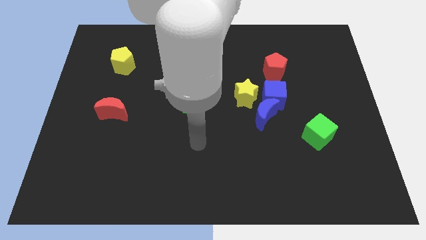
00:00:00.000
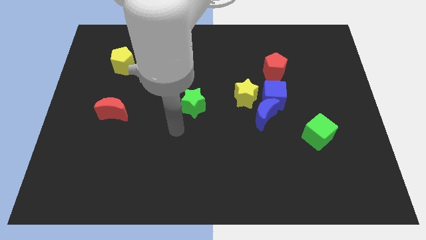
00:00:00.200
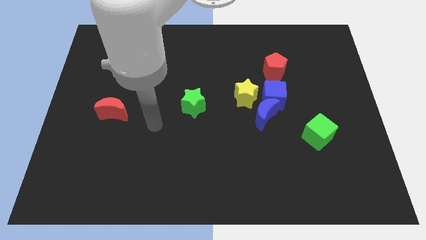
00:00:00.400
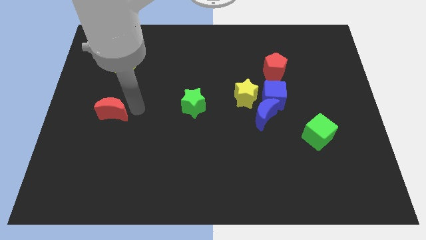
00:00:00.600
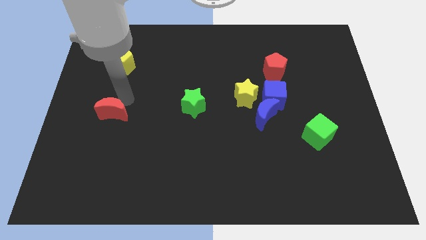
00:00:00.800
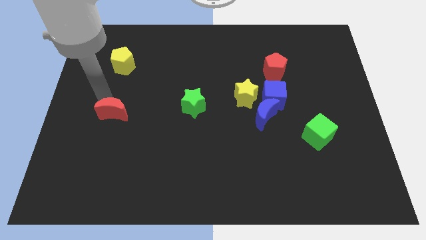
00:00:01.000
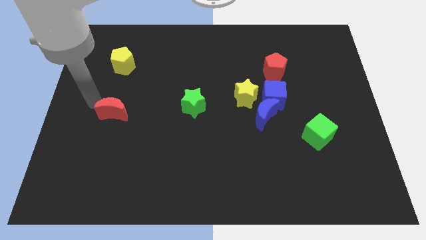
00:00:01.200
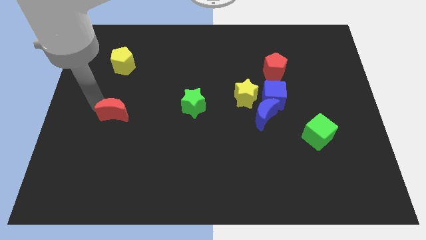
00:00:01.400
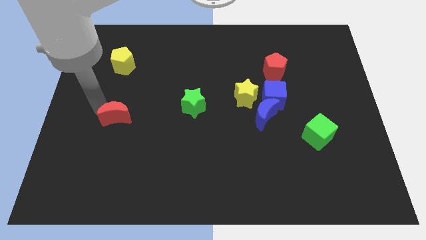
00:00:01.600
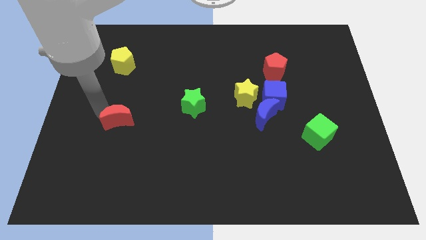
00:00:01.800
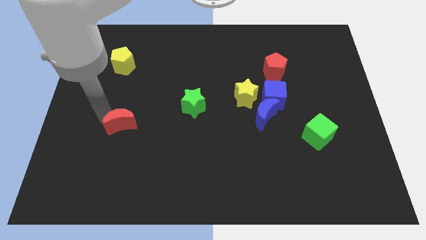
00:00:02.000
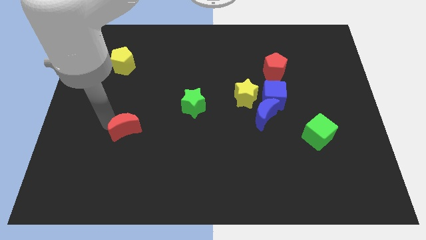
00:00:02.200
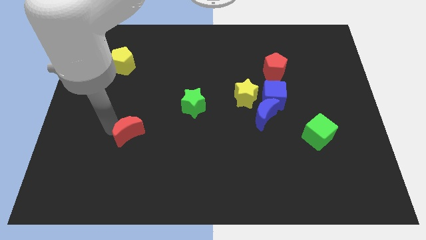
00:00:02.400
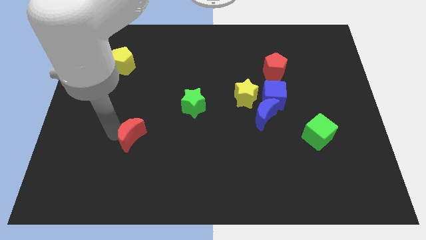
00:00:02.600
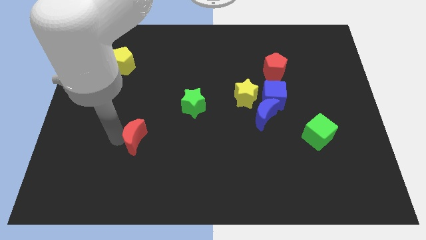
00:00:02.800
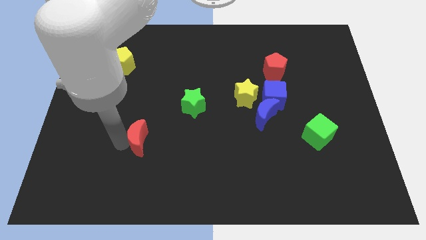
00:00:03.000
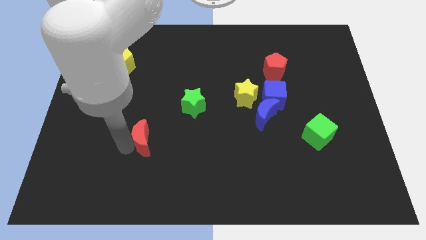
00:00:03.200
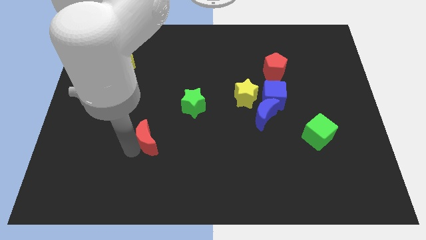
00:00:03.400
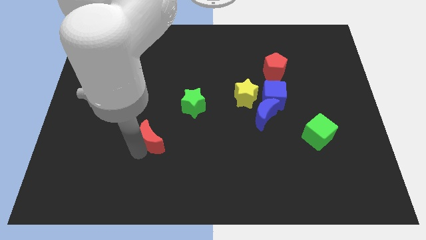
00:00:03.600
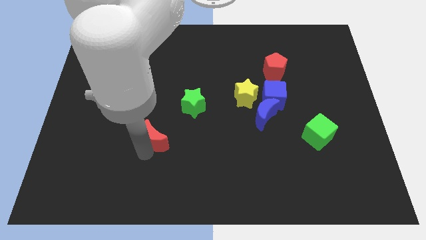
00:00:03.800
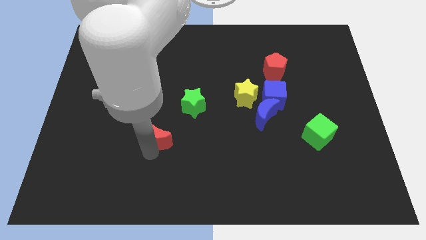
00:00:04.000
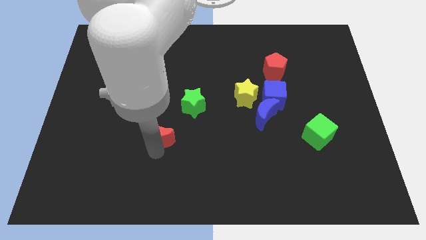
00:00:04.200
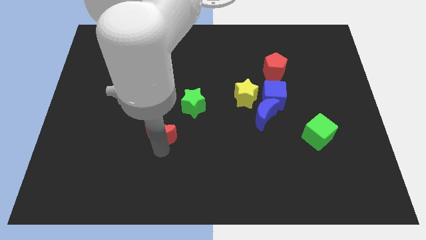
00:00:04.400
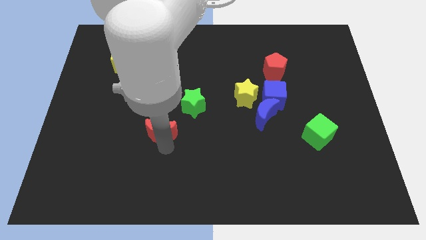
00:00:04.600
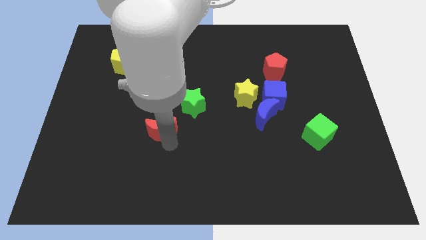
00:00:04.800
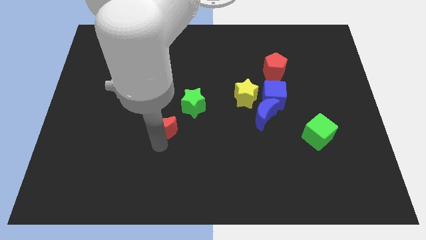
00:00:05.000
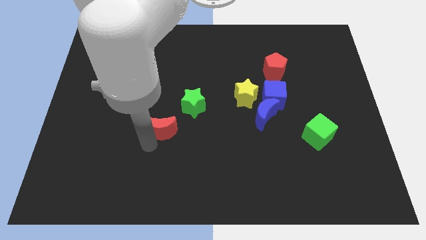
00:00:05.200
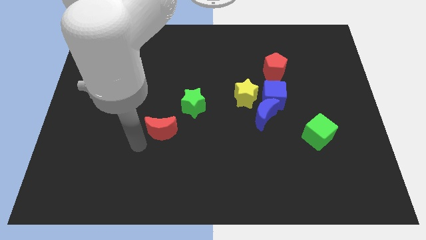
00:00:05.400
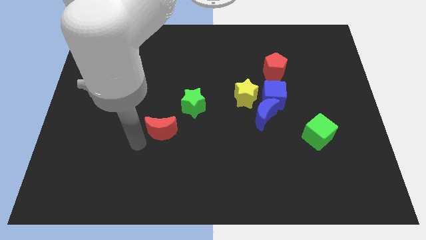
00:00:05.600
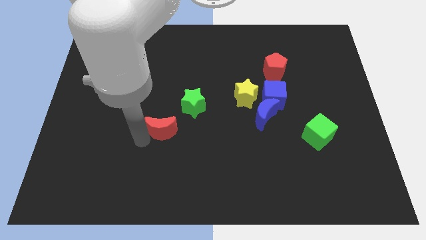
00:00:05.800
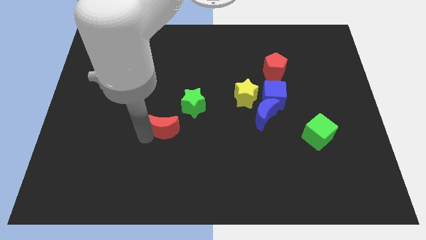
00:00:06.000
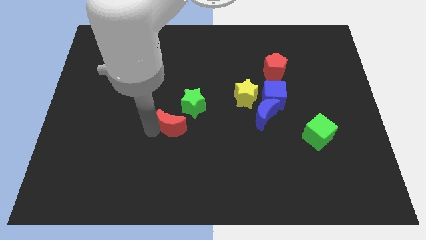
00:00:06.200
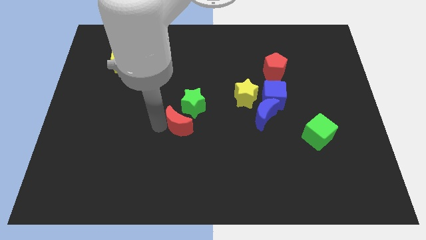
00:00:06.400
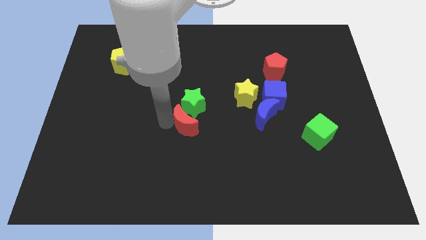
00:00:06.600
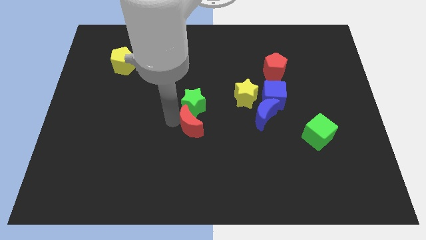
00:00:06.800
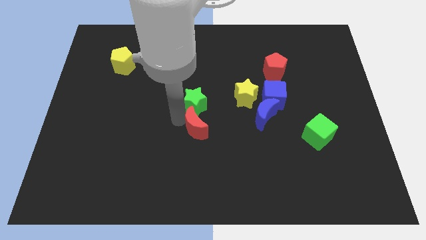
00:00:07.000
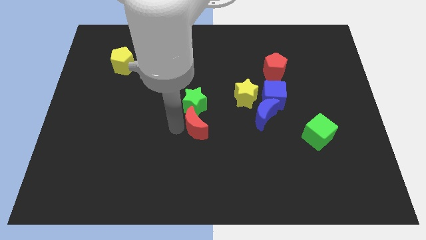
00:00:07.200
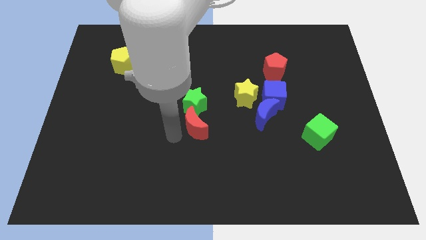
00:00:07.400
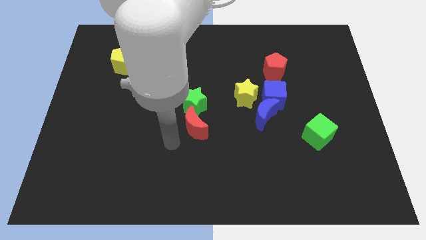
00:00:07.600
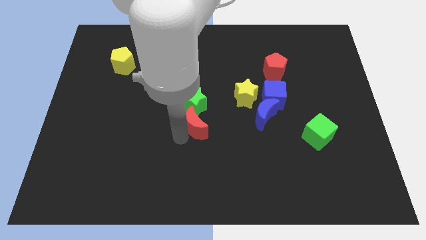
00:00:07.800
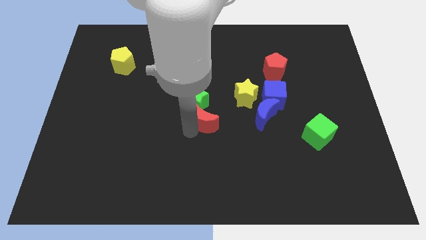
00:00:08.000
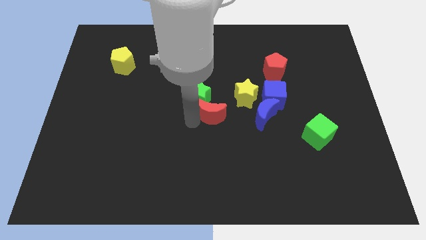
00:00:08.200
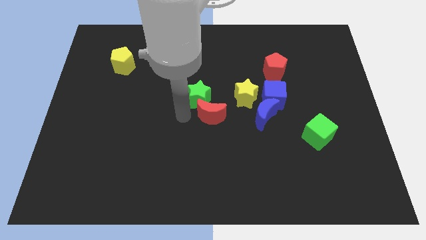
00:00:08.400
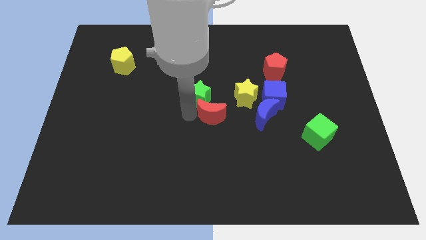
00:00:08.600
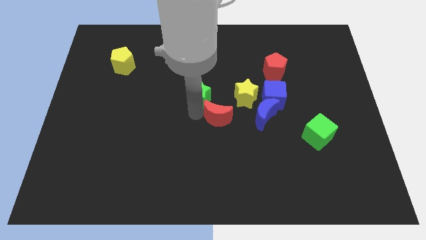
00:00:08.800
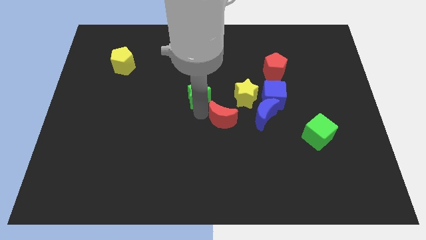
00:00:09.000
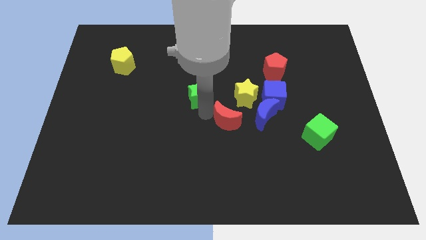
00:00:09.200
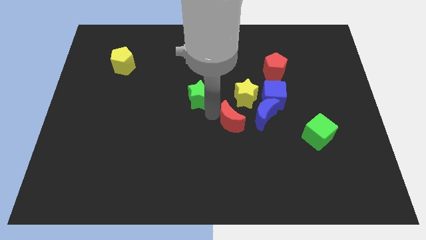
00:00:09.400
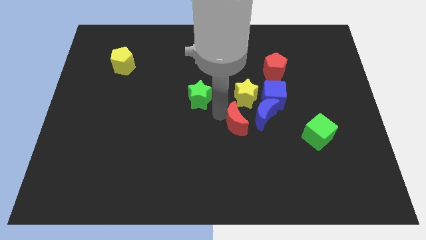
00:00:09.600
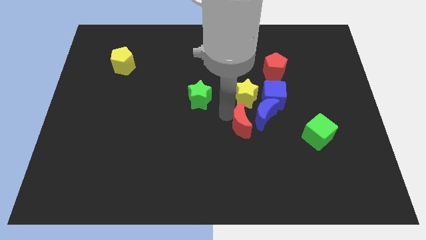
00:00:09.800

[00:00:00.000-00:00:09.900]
put the red moon to the blue moon

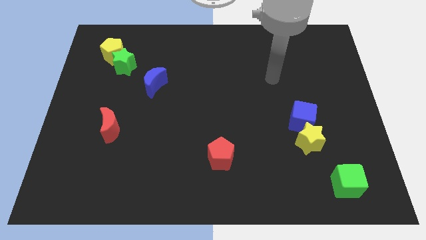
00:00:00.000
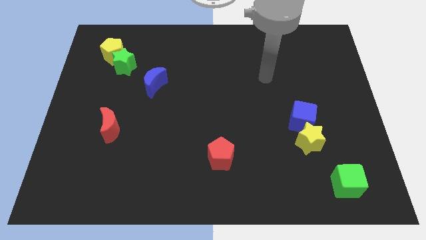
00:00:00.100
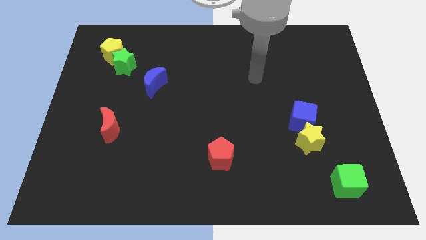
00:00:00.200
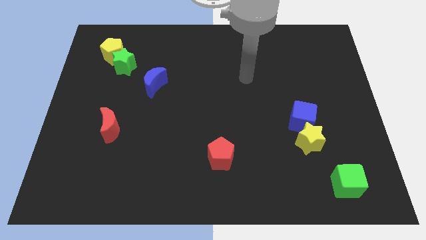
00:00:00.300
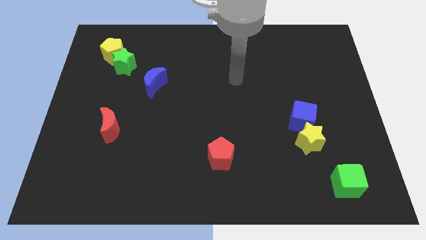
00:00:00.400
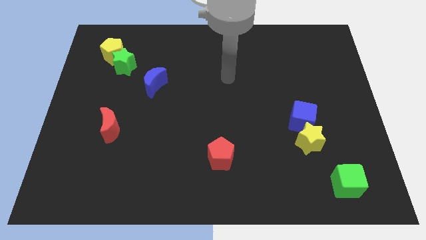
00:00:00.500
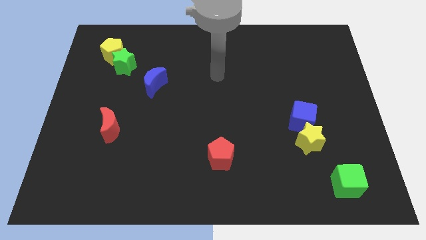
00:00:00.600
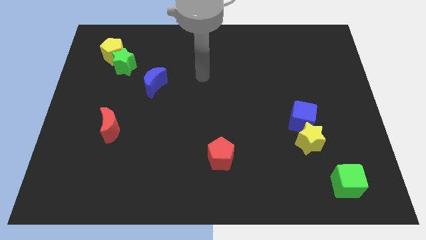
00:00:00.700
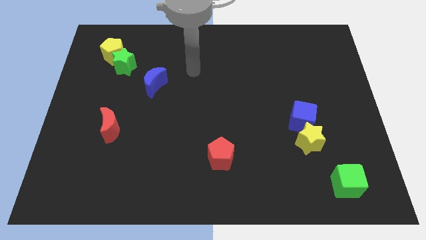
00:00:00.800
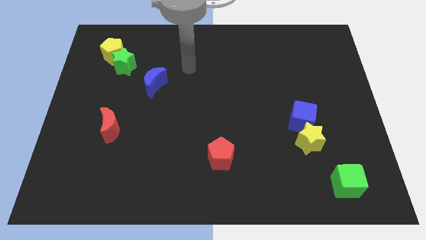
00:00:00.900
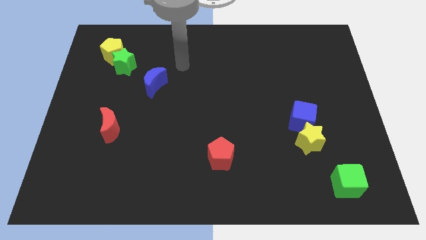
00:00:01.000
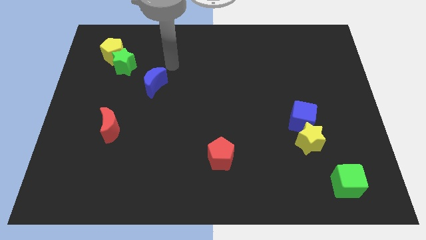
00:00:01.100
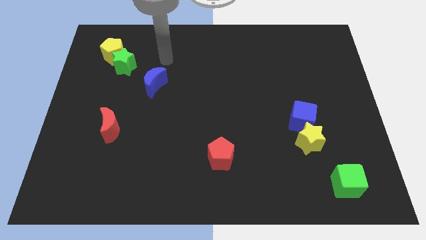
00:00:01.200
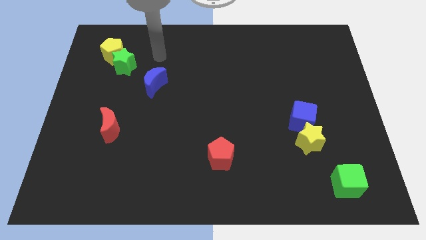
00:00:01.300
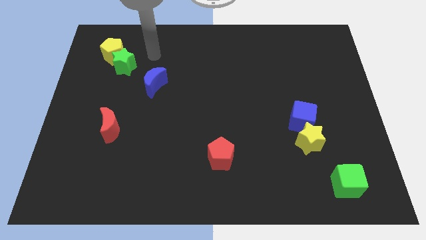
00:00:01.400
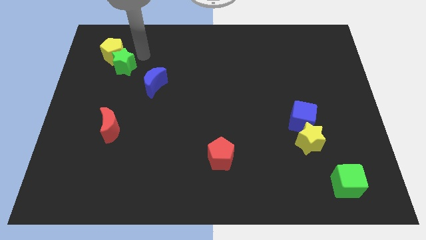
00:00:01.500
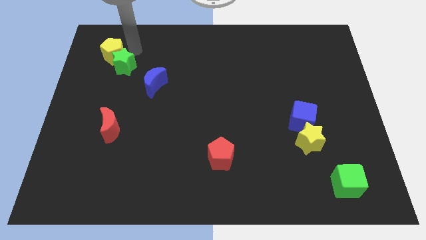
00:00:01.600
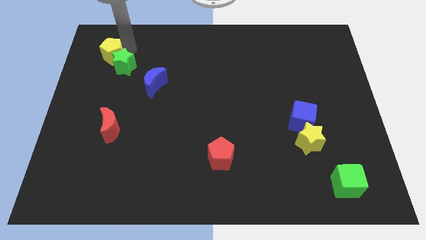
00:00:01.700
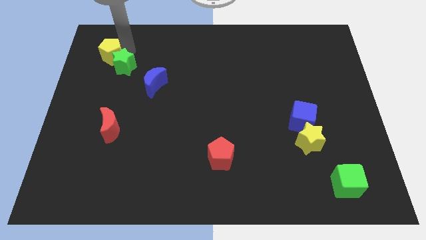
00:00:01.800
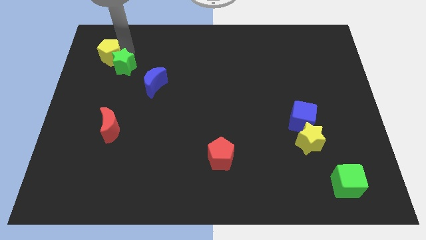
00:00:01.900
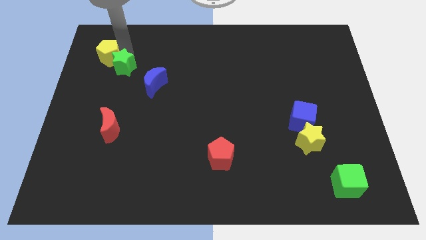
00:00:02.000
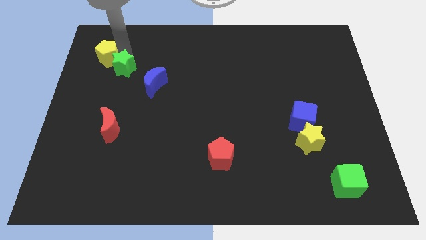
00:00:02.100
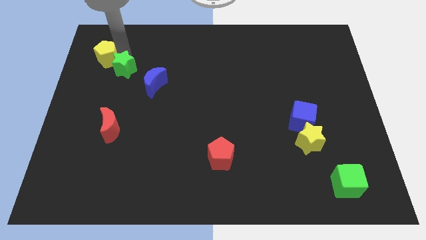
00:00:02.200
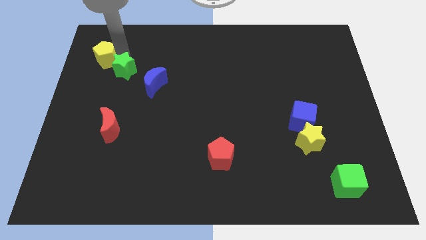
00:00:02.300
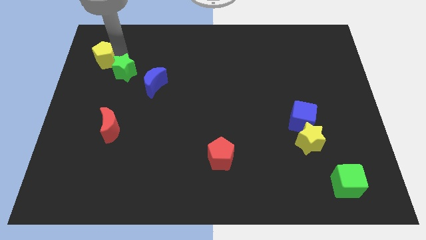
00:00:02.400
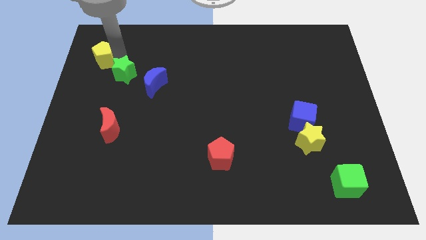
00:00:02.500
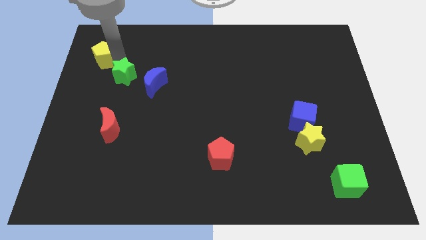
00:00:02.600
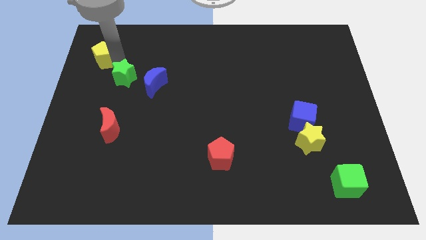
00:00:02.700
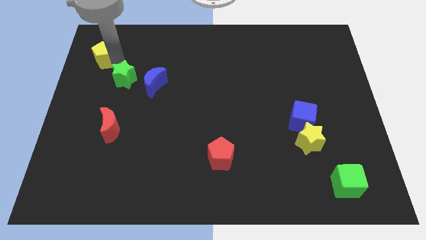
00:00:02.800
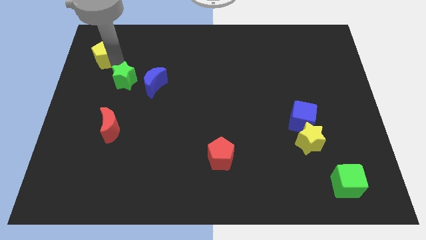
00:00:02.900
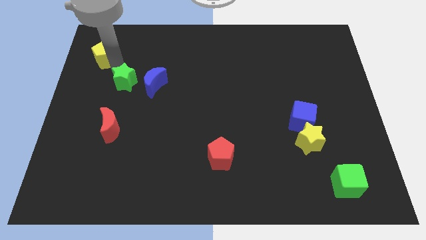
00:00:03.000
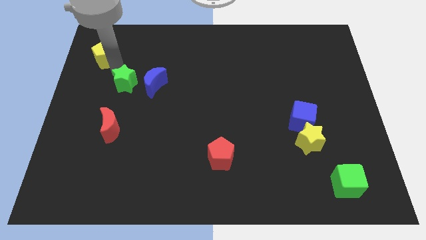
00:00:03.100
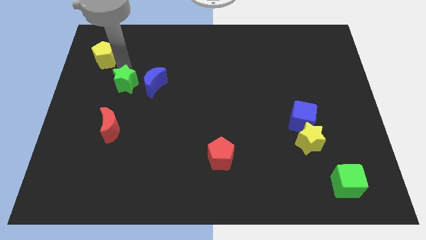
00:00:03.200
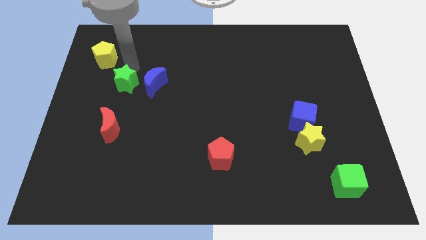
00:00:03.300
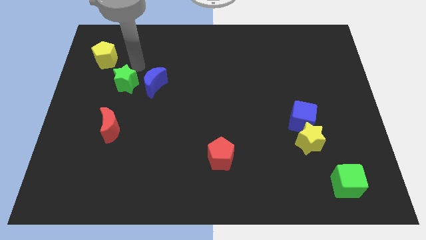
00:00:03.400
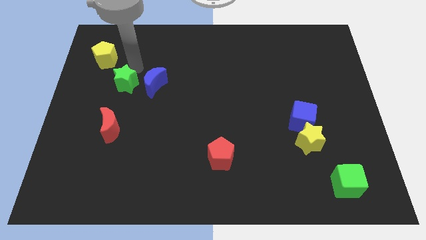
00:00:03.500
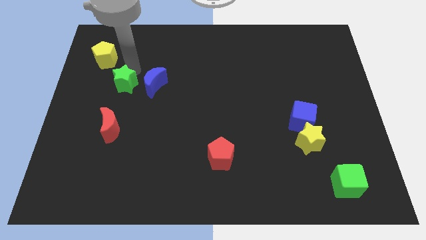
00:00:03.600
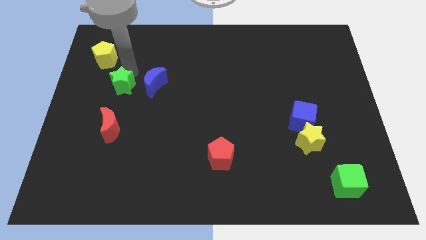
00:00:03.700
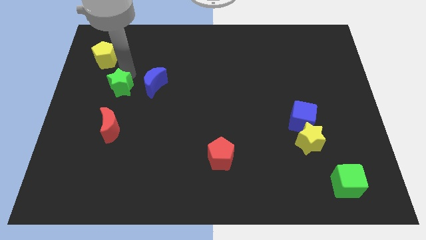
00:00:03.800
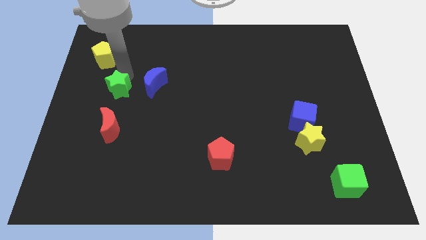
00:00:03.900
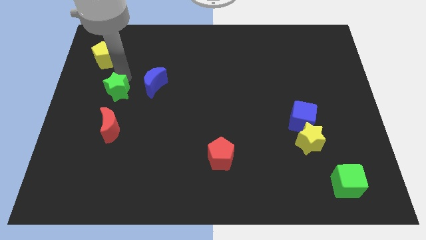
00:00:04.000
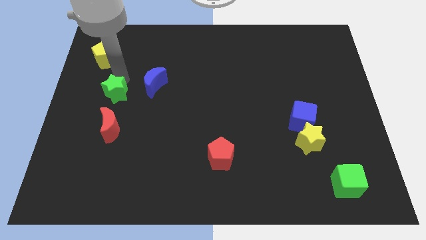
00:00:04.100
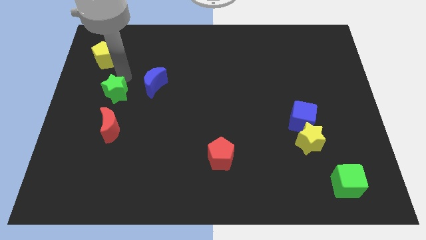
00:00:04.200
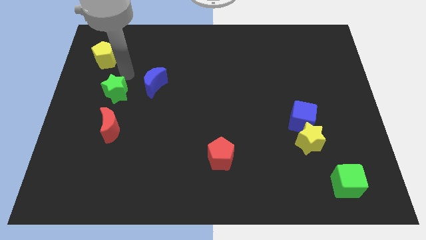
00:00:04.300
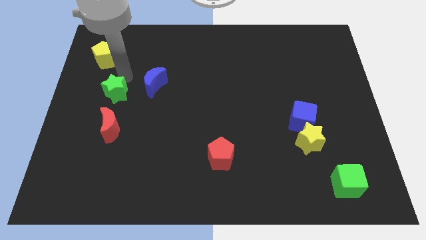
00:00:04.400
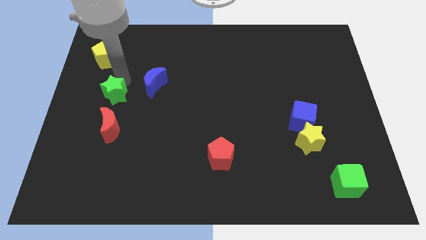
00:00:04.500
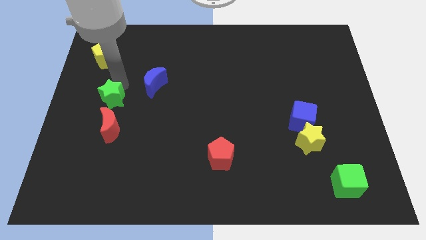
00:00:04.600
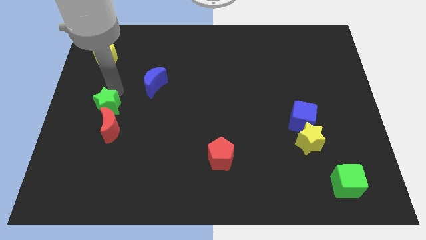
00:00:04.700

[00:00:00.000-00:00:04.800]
move the green star next to the red moon
